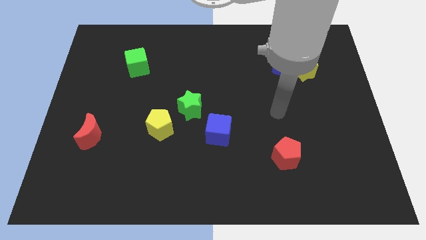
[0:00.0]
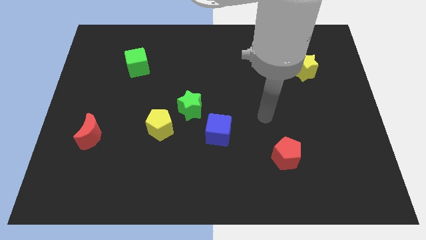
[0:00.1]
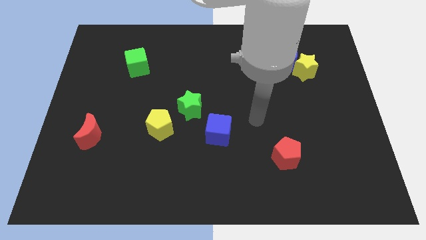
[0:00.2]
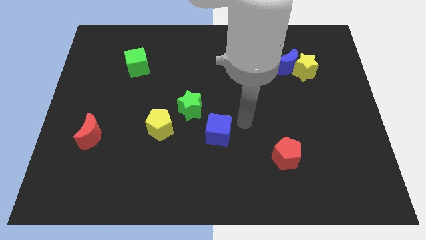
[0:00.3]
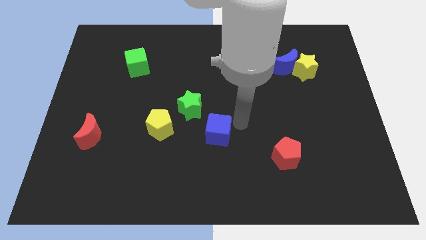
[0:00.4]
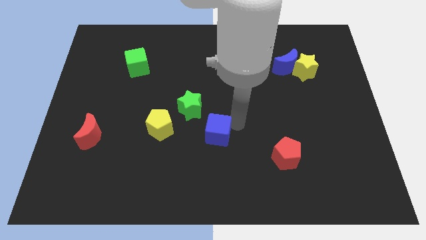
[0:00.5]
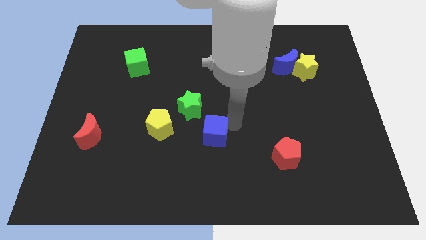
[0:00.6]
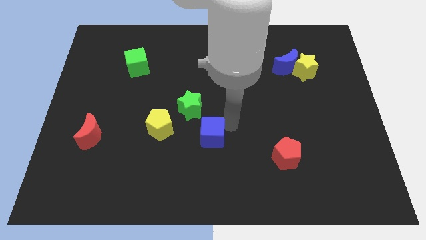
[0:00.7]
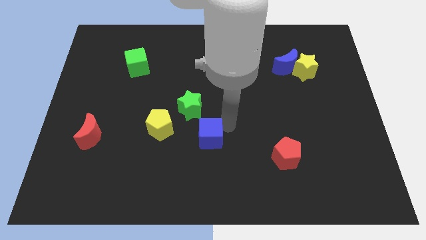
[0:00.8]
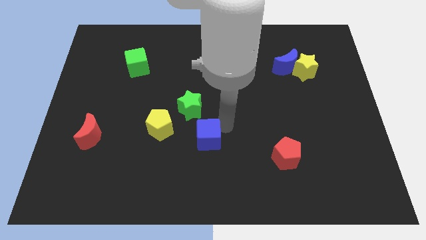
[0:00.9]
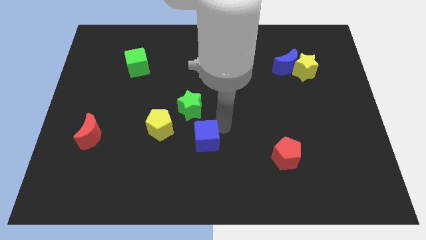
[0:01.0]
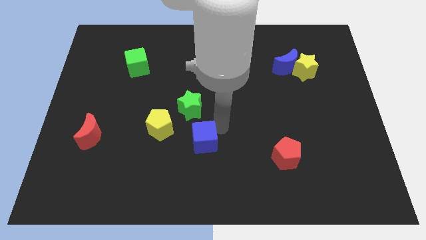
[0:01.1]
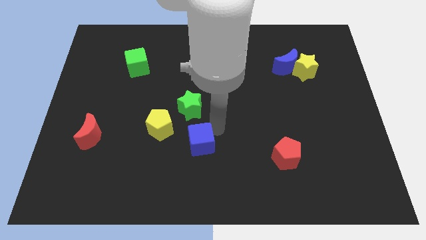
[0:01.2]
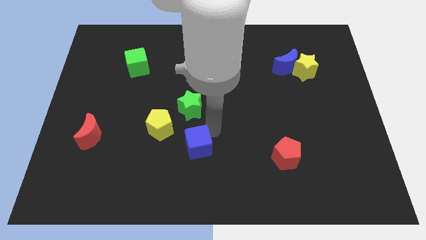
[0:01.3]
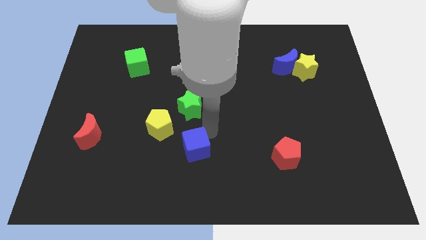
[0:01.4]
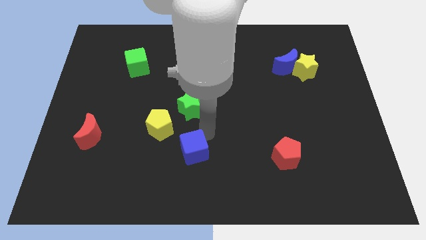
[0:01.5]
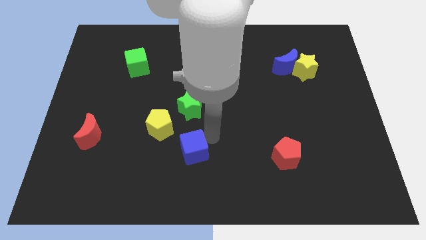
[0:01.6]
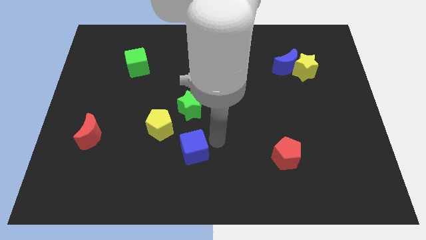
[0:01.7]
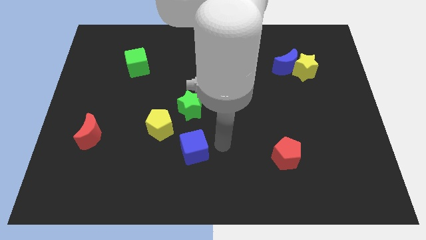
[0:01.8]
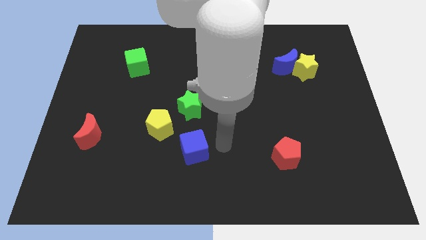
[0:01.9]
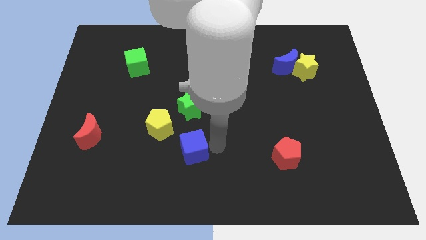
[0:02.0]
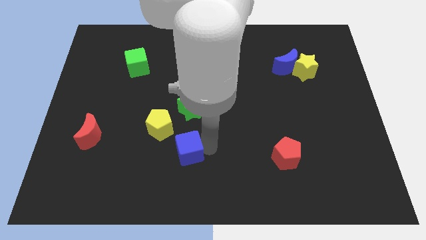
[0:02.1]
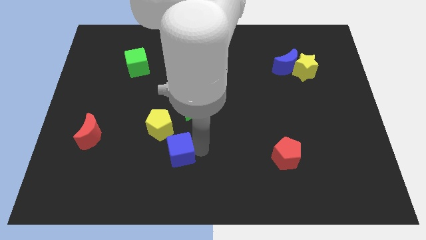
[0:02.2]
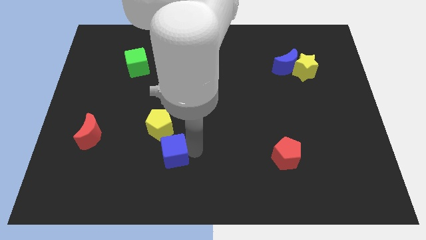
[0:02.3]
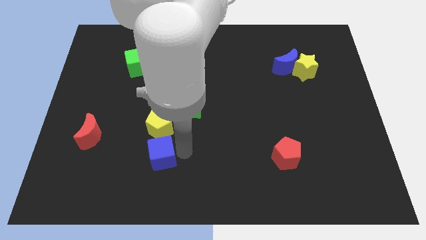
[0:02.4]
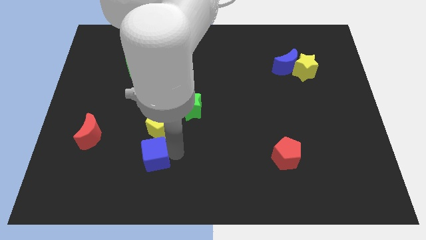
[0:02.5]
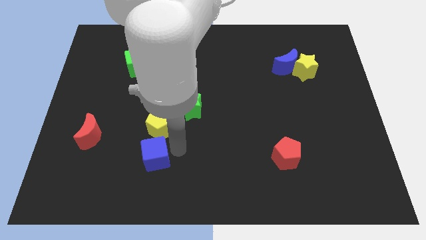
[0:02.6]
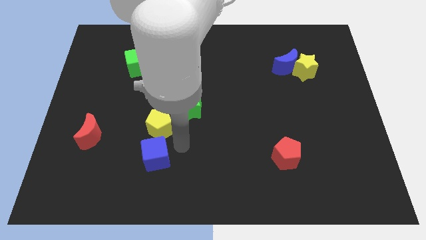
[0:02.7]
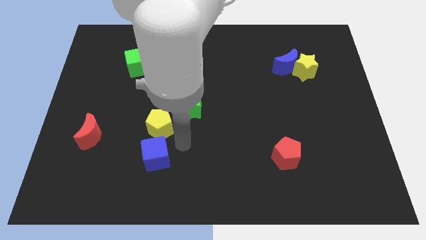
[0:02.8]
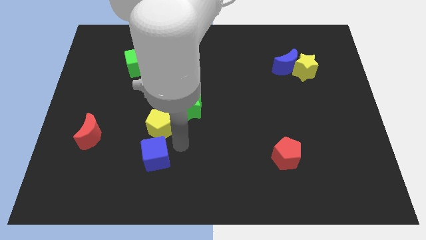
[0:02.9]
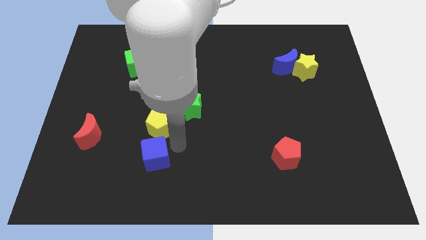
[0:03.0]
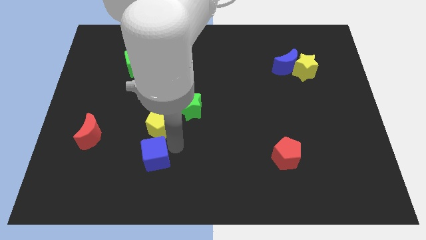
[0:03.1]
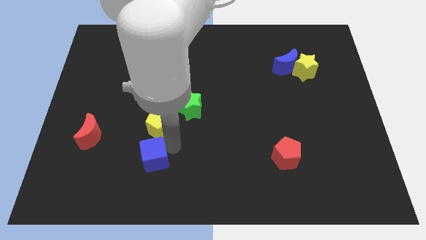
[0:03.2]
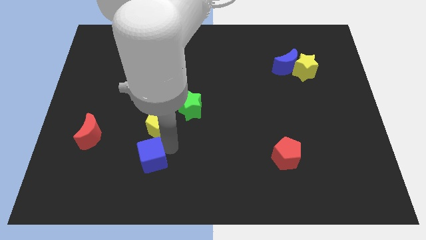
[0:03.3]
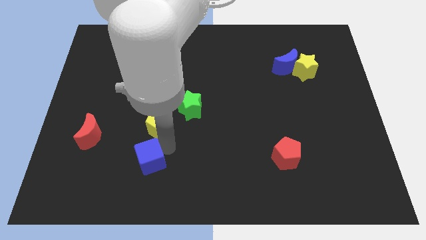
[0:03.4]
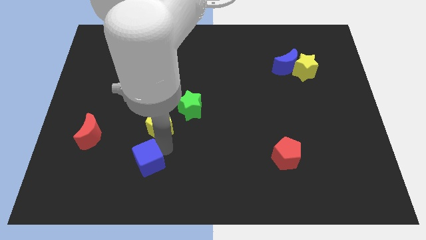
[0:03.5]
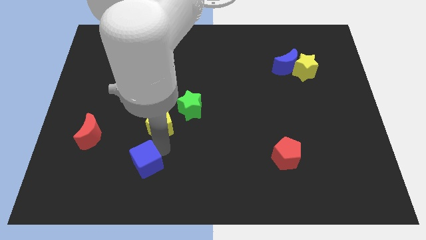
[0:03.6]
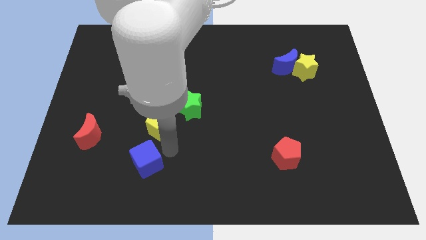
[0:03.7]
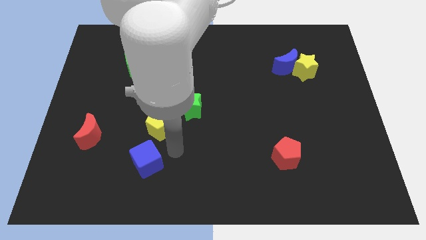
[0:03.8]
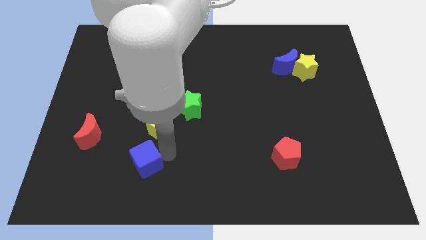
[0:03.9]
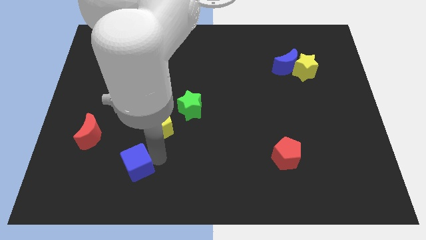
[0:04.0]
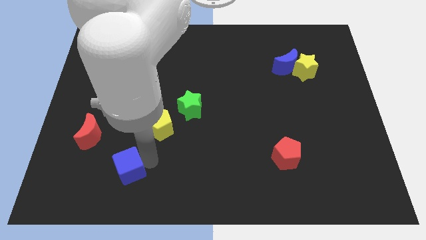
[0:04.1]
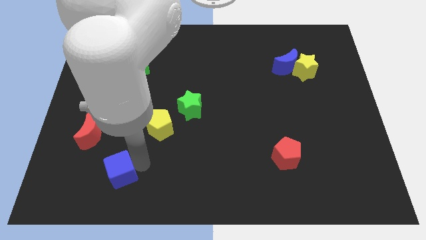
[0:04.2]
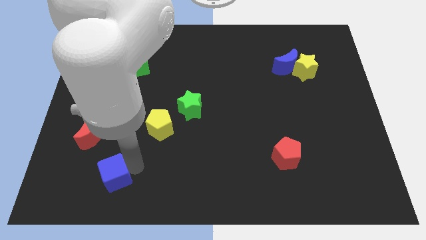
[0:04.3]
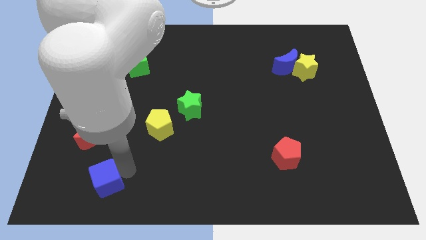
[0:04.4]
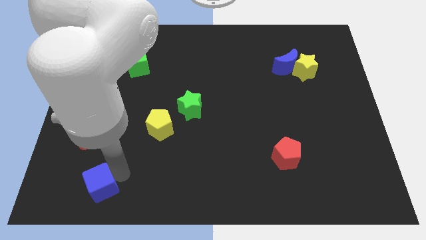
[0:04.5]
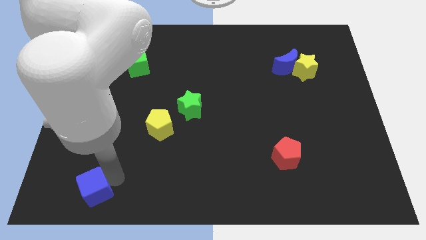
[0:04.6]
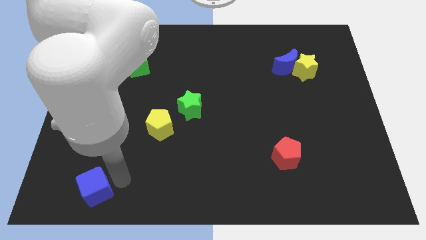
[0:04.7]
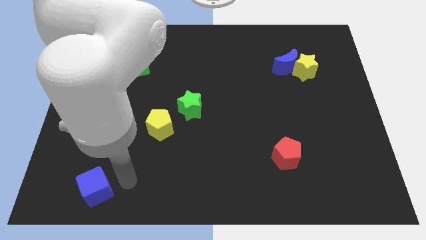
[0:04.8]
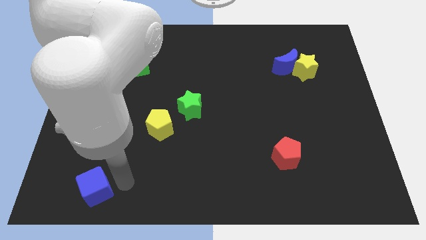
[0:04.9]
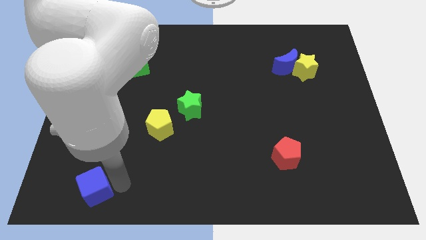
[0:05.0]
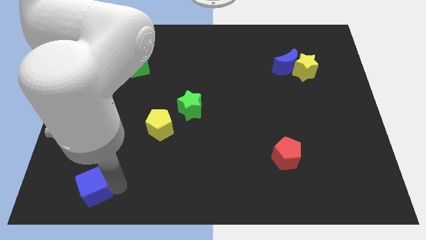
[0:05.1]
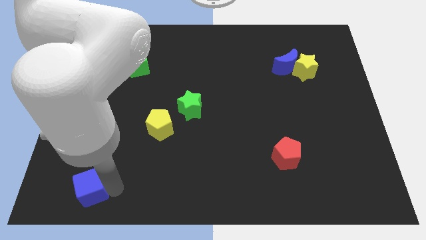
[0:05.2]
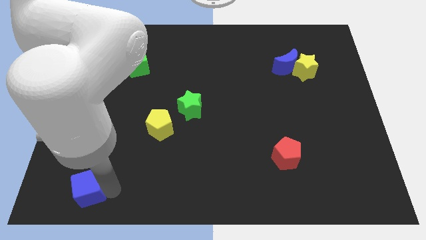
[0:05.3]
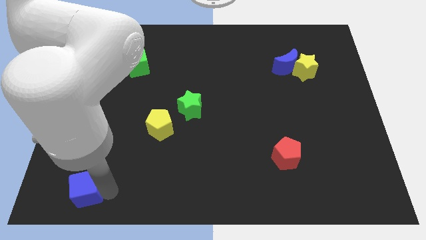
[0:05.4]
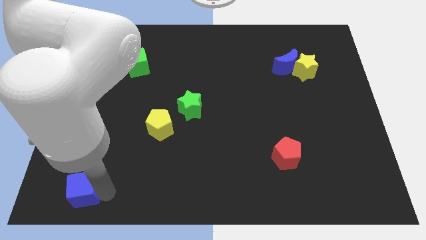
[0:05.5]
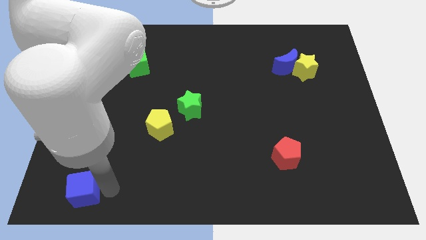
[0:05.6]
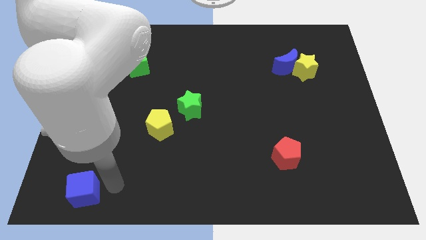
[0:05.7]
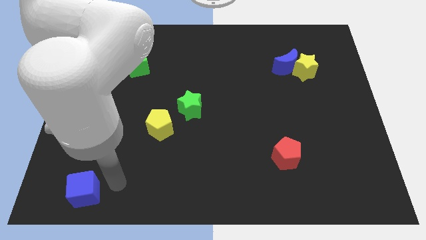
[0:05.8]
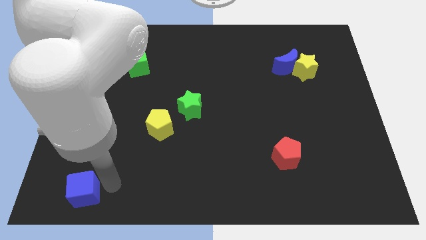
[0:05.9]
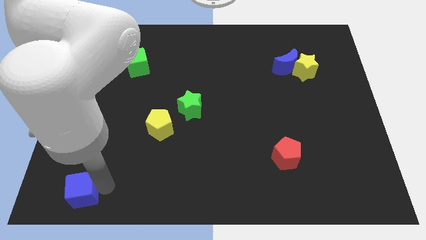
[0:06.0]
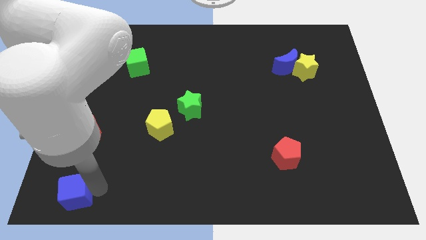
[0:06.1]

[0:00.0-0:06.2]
slide the blue cube to the bottom left of the board

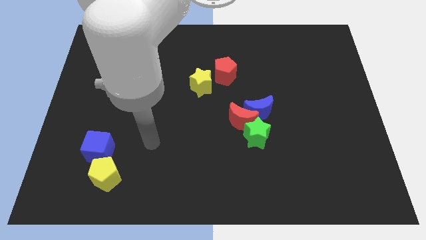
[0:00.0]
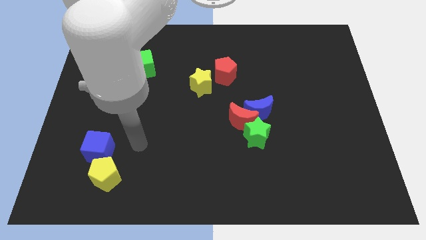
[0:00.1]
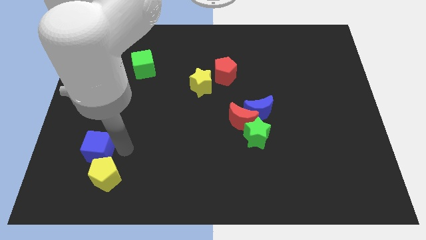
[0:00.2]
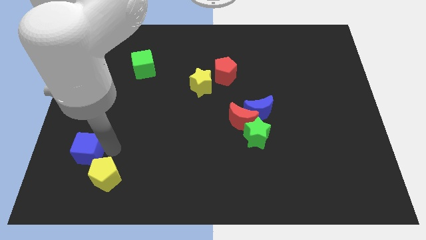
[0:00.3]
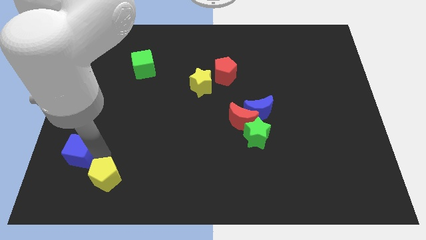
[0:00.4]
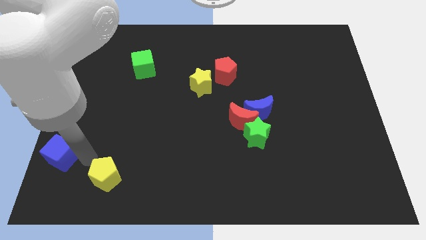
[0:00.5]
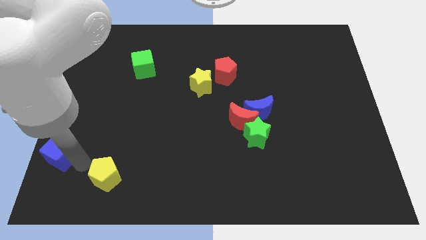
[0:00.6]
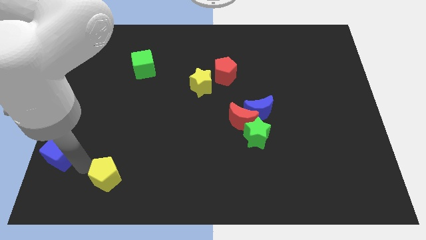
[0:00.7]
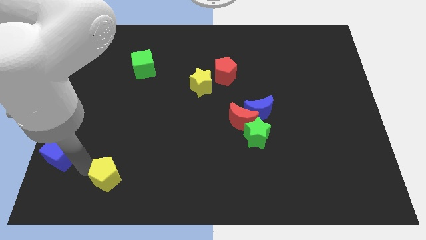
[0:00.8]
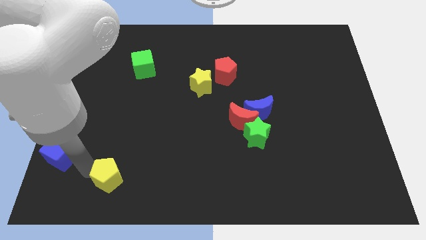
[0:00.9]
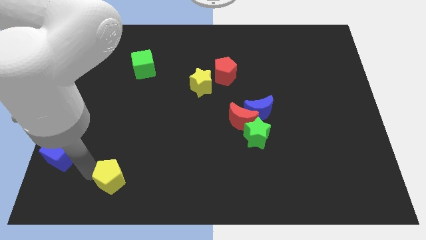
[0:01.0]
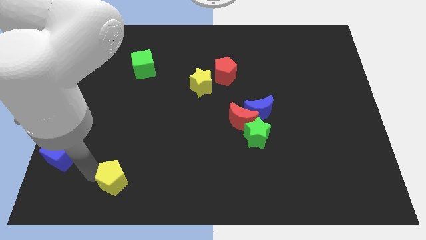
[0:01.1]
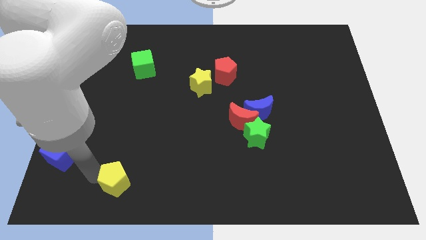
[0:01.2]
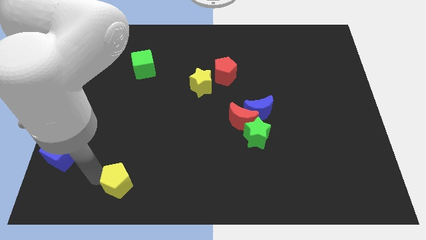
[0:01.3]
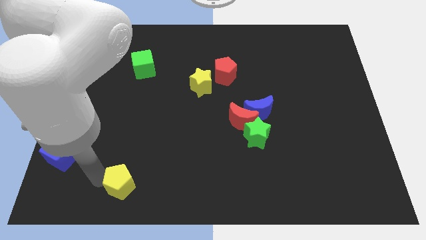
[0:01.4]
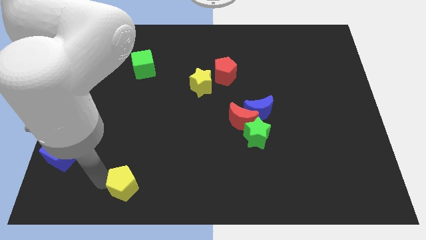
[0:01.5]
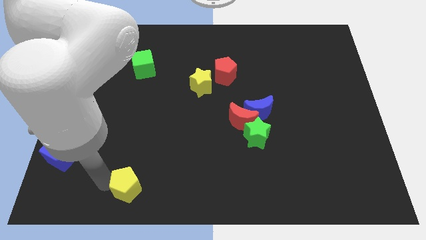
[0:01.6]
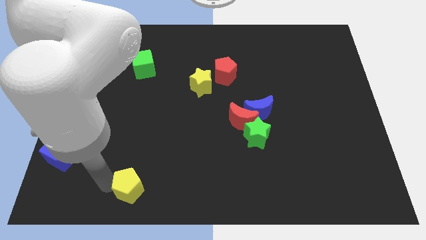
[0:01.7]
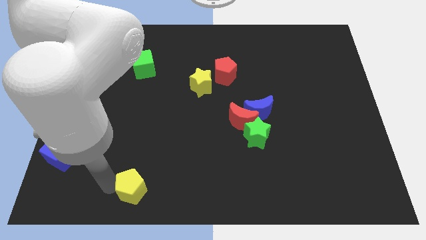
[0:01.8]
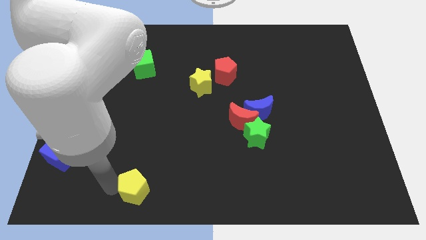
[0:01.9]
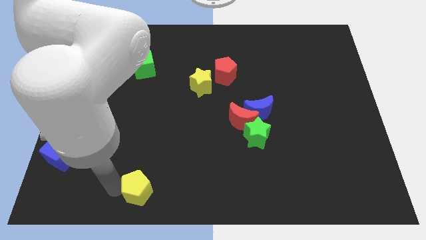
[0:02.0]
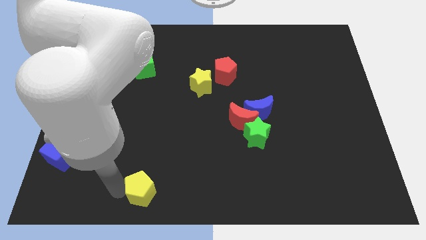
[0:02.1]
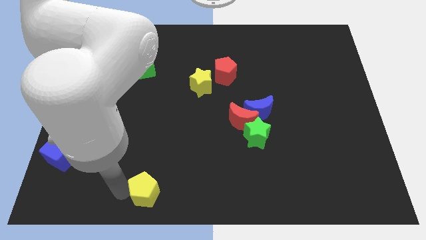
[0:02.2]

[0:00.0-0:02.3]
slide the yellow pentagon to the bottom side
